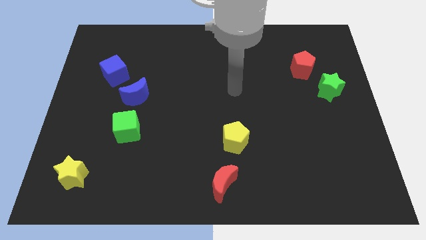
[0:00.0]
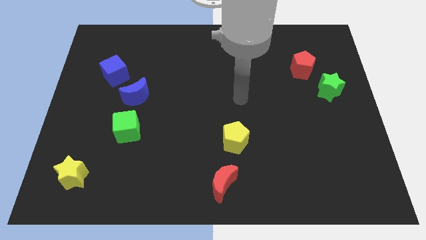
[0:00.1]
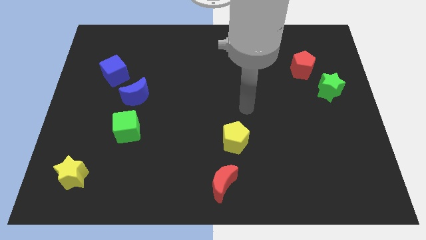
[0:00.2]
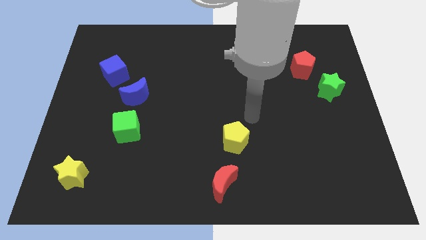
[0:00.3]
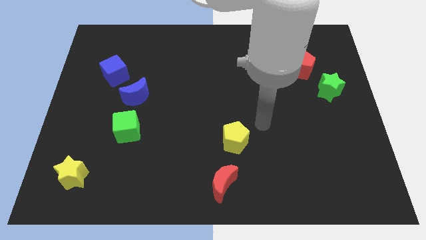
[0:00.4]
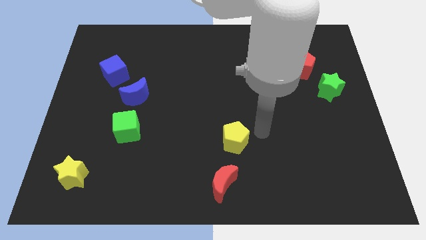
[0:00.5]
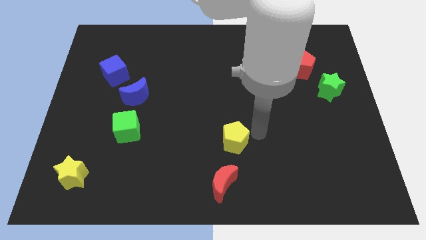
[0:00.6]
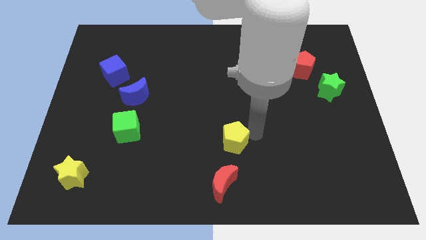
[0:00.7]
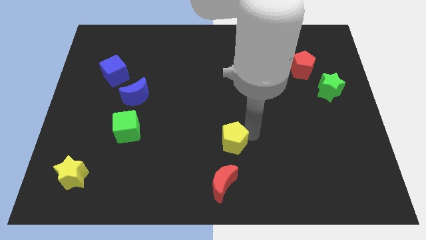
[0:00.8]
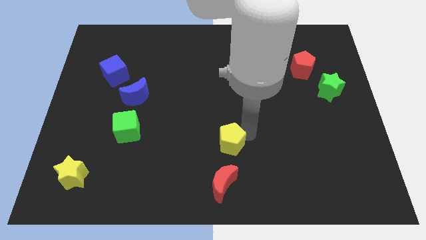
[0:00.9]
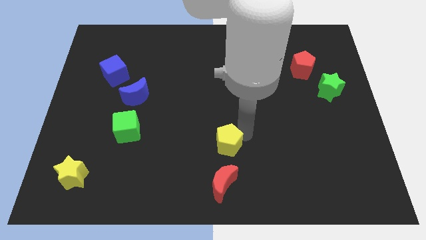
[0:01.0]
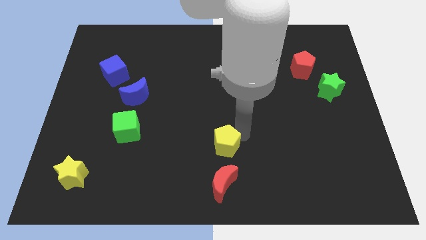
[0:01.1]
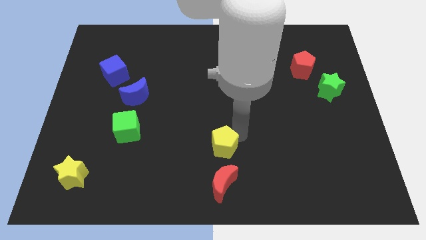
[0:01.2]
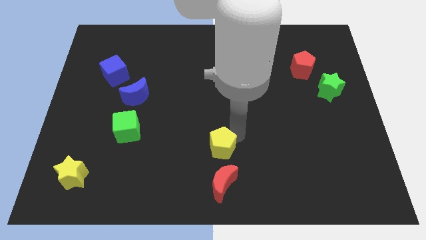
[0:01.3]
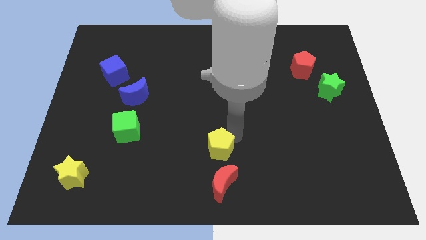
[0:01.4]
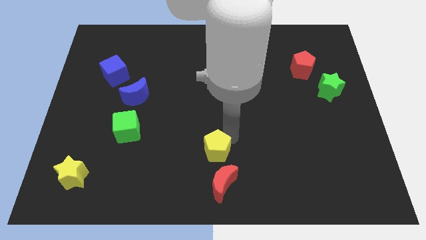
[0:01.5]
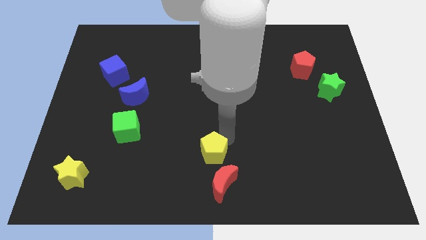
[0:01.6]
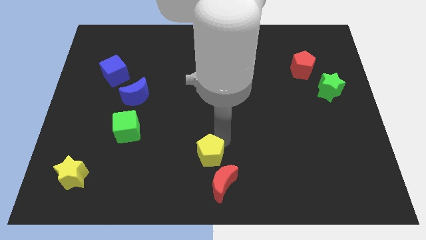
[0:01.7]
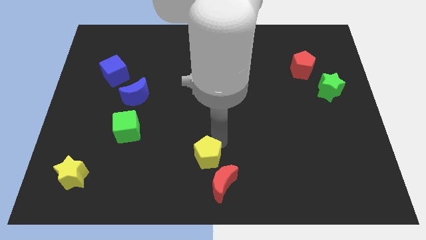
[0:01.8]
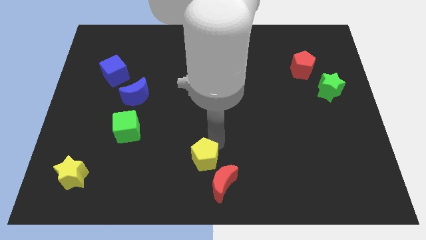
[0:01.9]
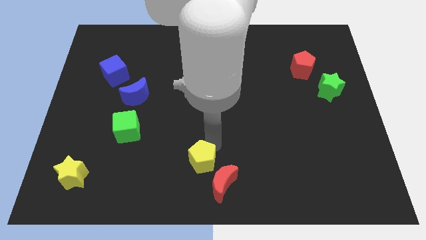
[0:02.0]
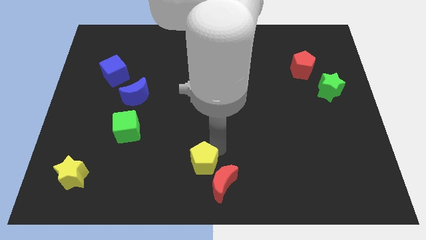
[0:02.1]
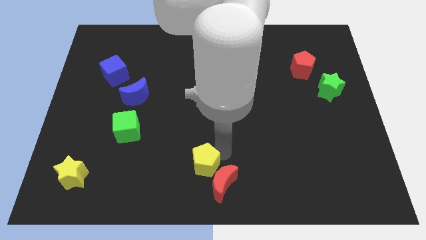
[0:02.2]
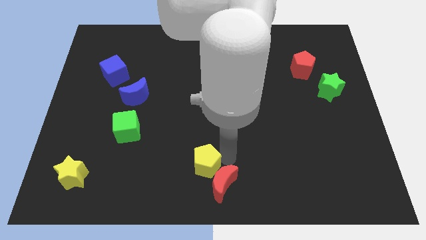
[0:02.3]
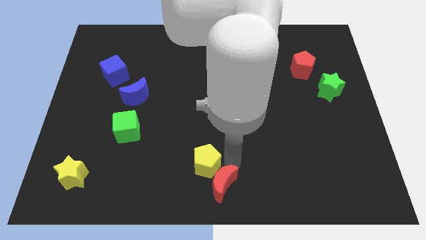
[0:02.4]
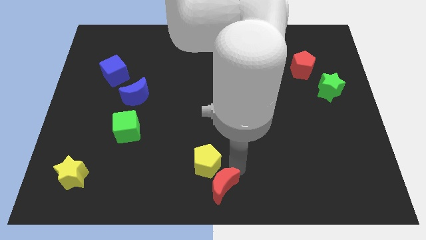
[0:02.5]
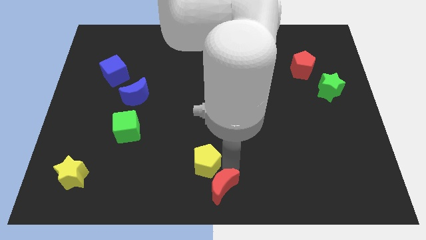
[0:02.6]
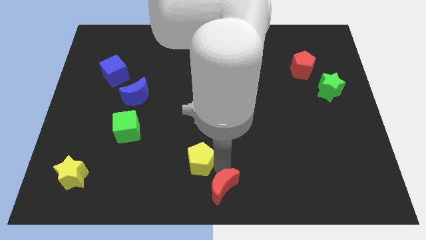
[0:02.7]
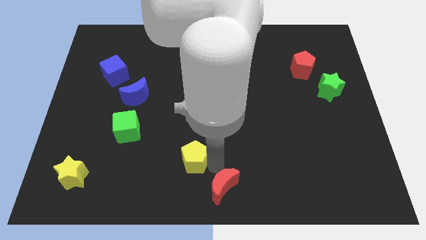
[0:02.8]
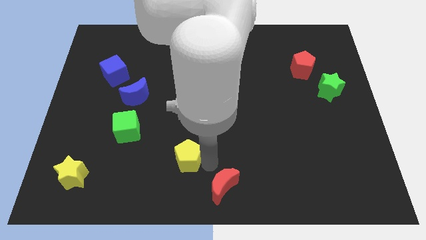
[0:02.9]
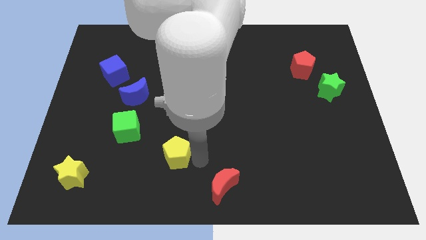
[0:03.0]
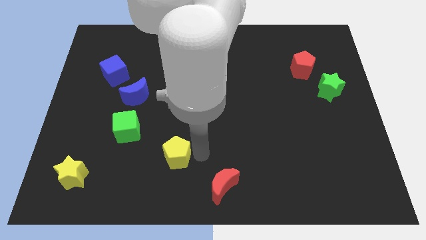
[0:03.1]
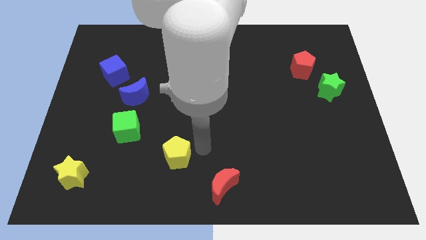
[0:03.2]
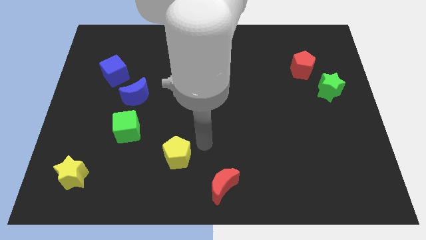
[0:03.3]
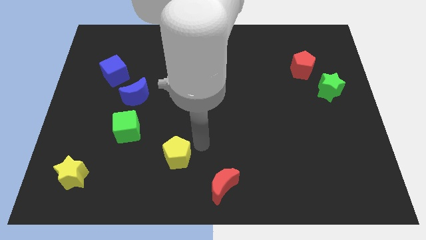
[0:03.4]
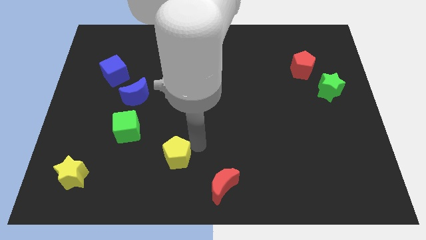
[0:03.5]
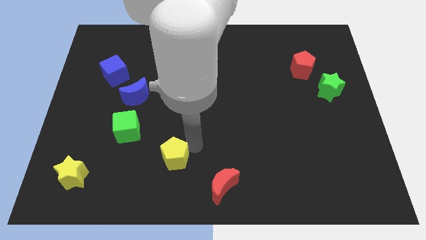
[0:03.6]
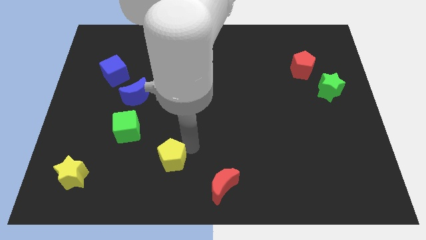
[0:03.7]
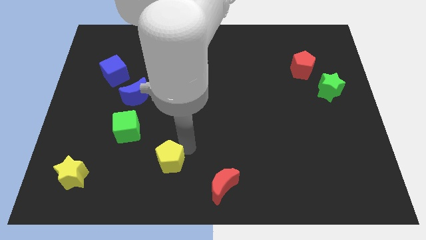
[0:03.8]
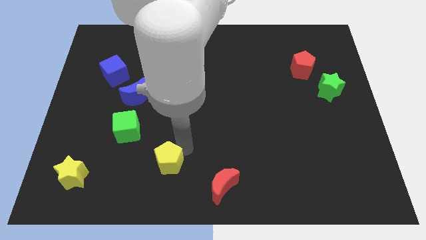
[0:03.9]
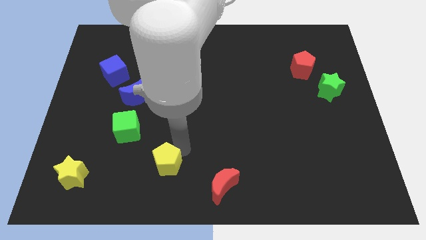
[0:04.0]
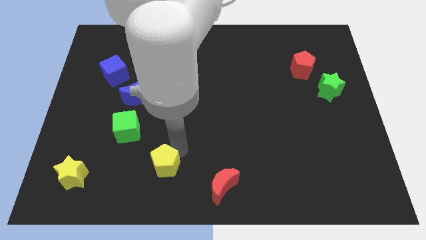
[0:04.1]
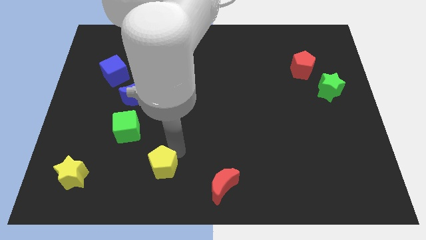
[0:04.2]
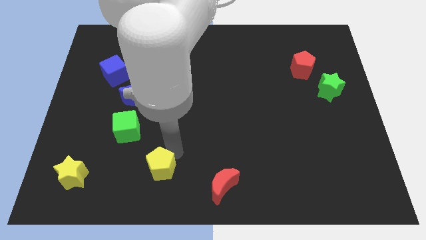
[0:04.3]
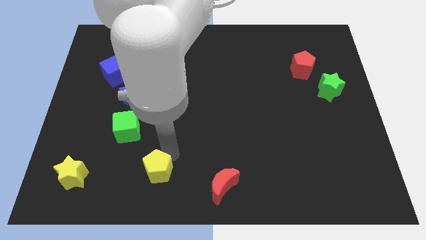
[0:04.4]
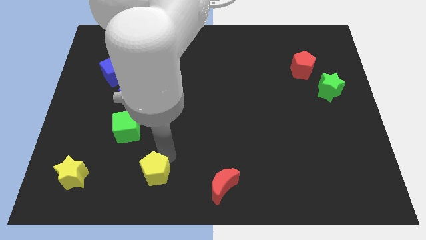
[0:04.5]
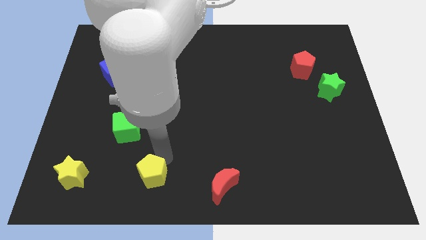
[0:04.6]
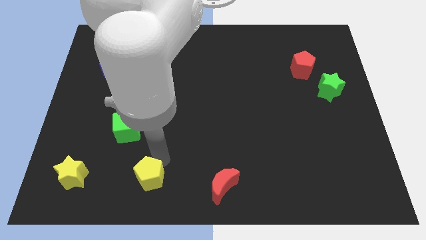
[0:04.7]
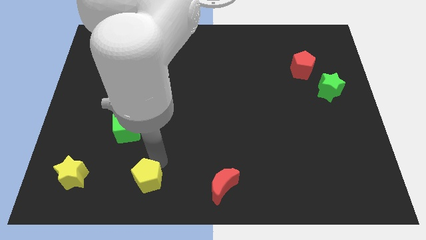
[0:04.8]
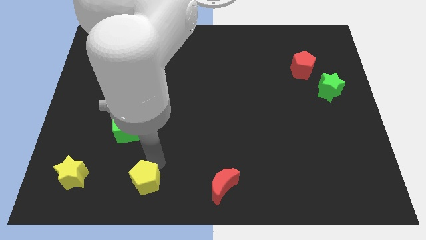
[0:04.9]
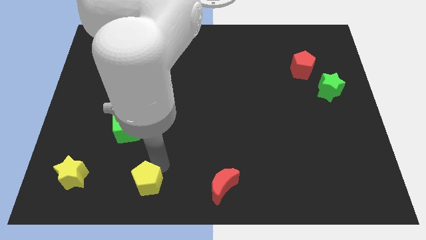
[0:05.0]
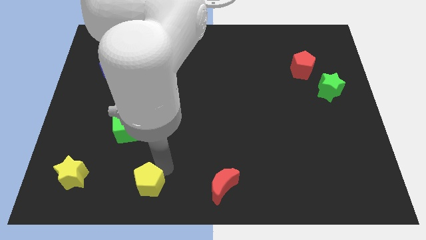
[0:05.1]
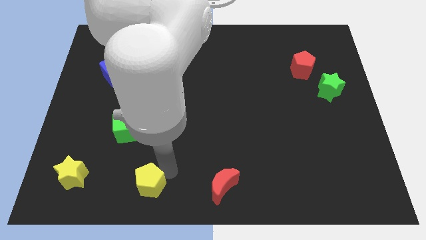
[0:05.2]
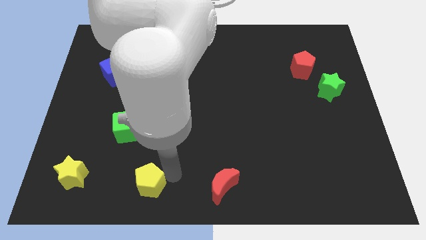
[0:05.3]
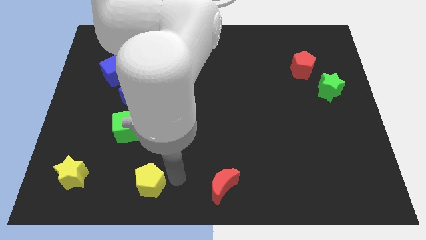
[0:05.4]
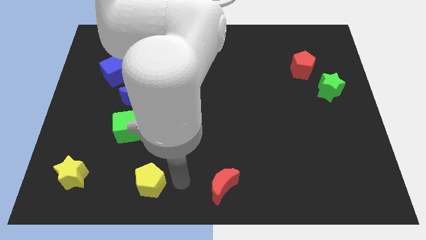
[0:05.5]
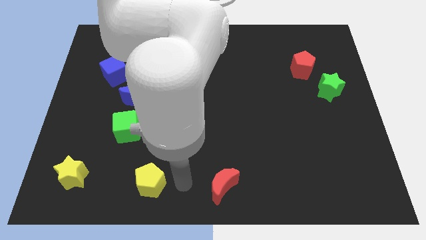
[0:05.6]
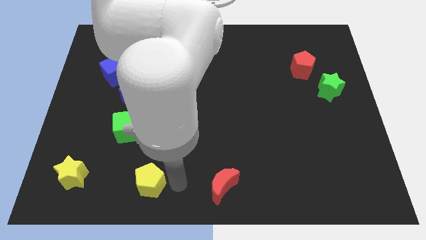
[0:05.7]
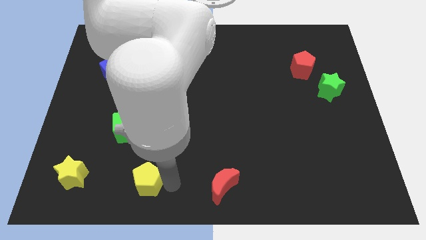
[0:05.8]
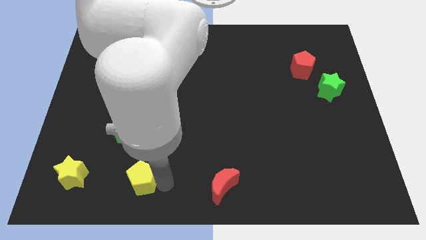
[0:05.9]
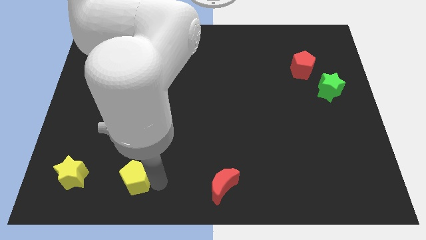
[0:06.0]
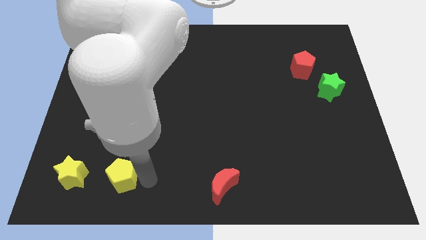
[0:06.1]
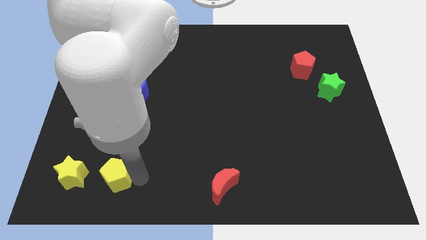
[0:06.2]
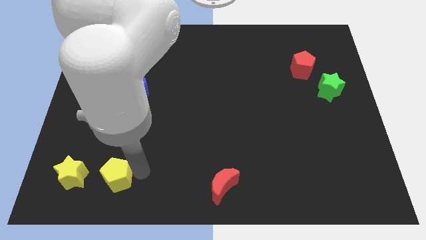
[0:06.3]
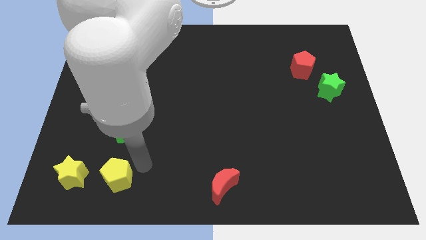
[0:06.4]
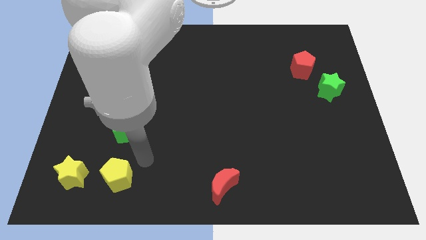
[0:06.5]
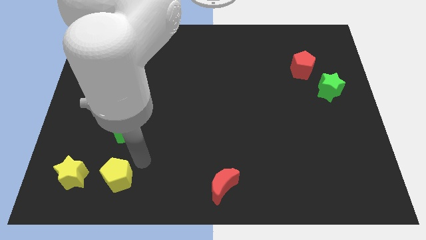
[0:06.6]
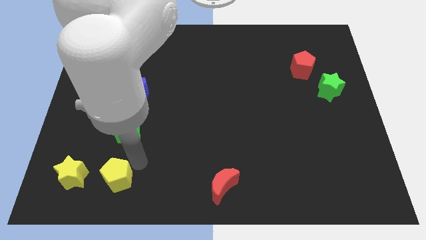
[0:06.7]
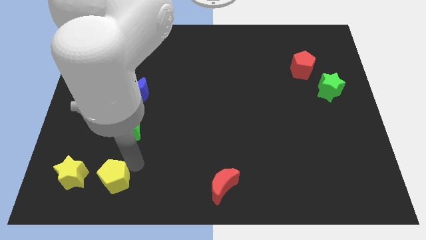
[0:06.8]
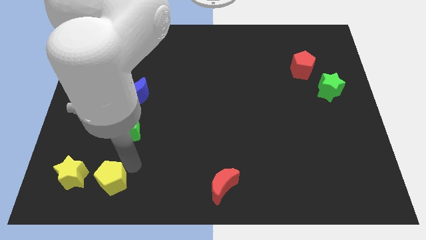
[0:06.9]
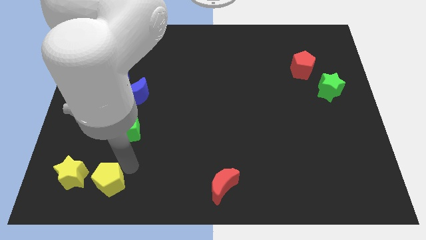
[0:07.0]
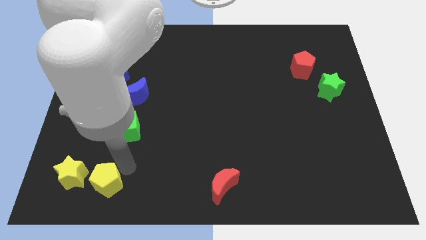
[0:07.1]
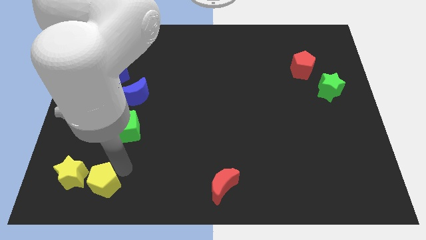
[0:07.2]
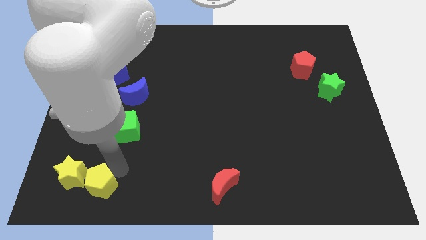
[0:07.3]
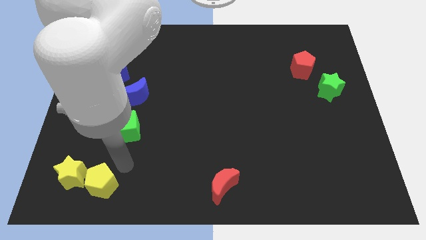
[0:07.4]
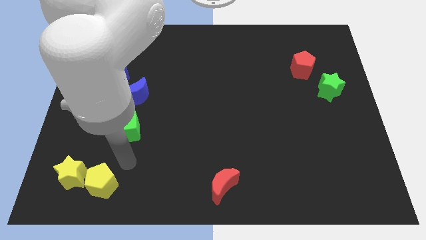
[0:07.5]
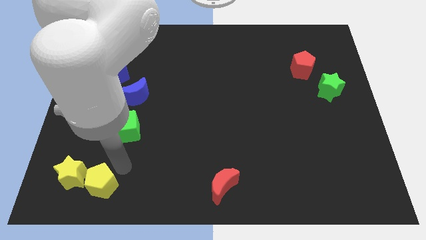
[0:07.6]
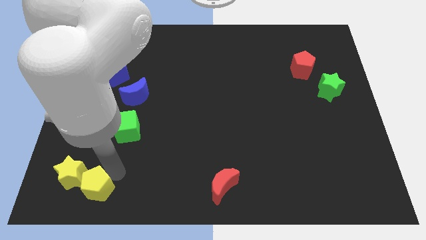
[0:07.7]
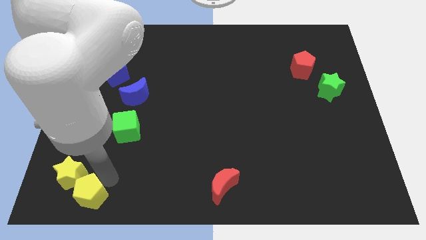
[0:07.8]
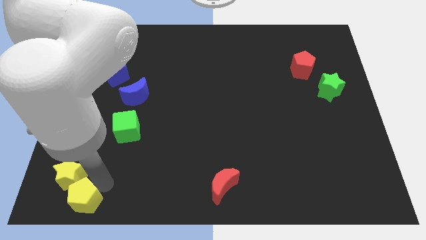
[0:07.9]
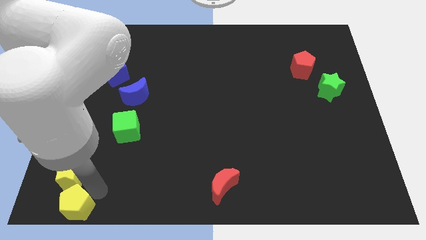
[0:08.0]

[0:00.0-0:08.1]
slide the yellow pentagon to the bottom left
